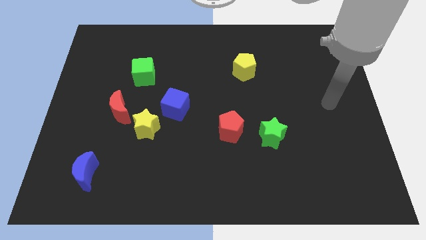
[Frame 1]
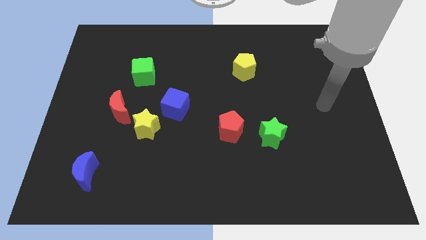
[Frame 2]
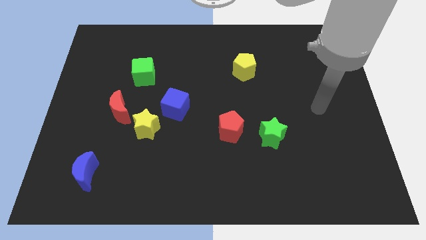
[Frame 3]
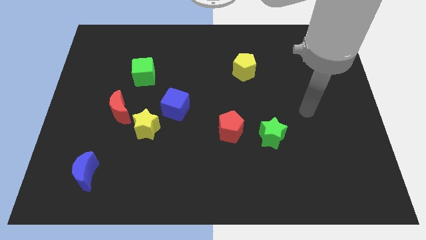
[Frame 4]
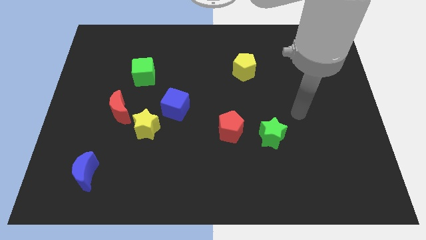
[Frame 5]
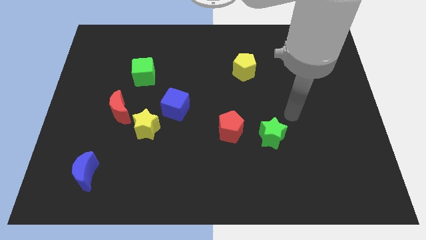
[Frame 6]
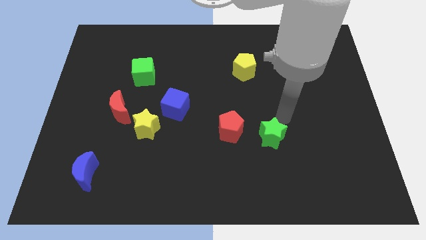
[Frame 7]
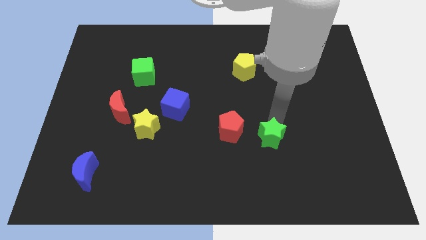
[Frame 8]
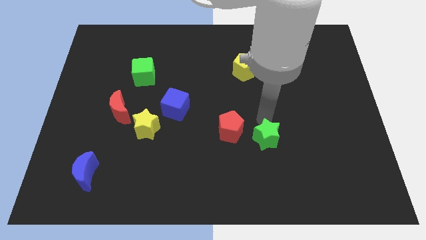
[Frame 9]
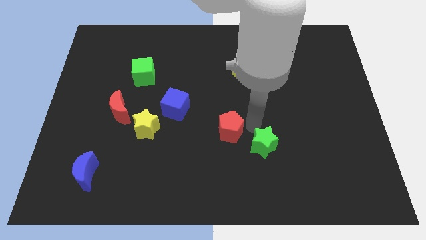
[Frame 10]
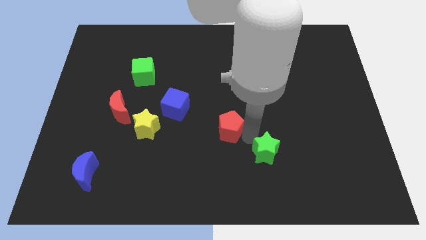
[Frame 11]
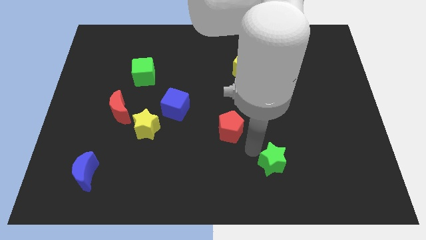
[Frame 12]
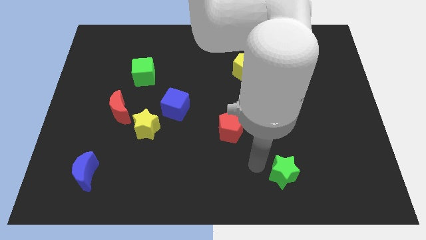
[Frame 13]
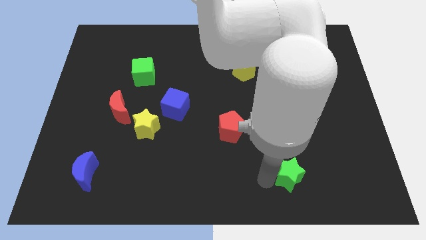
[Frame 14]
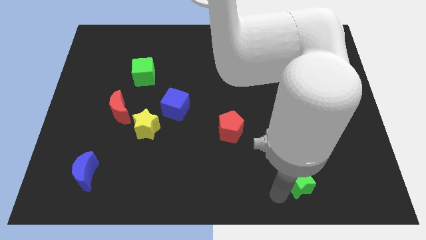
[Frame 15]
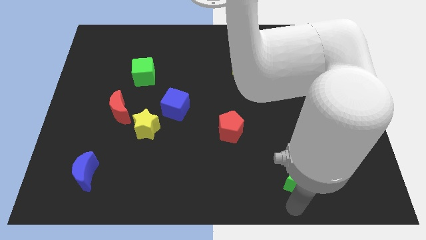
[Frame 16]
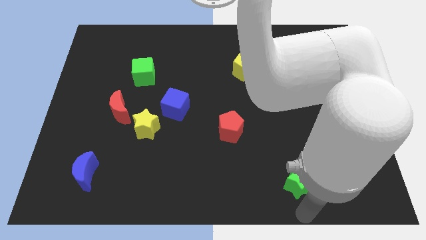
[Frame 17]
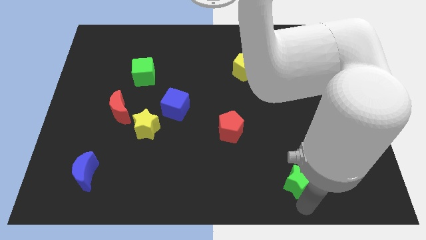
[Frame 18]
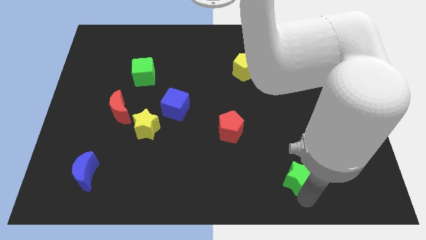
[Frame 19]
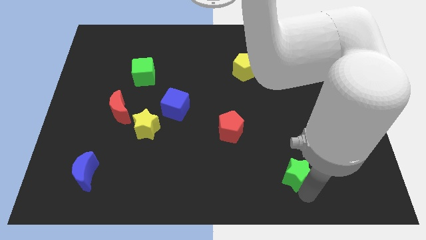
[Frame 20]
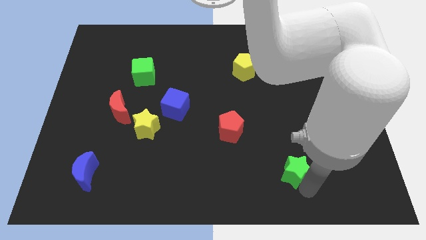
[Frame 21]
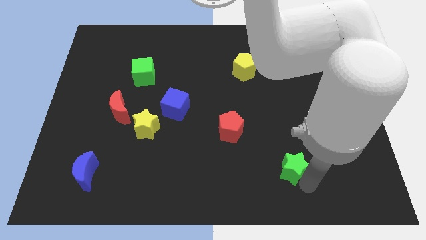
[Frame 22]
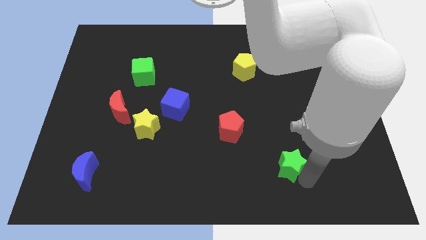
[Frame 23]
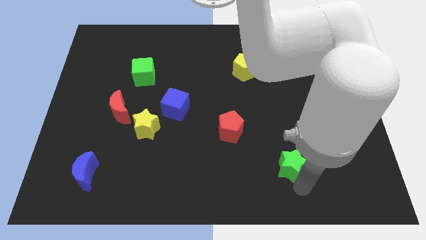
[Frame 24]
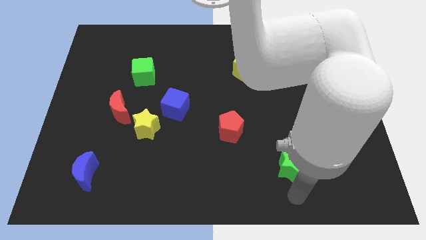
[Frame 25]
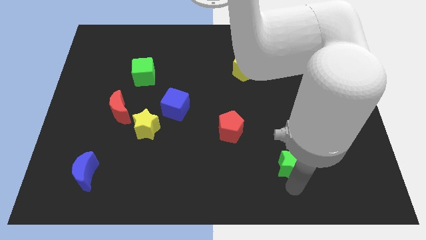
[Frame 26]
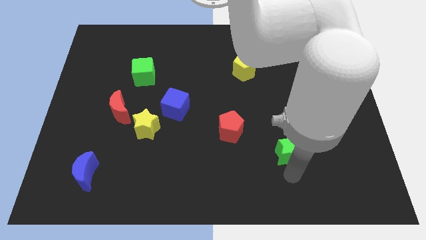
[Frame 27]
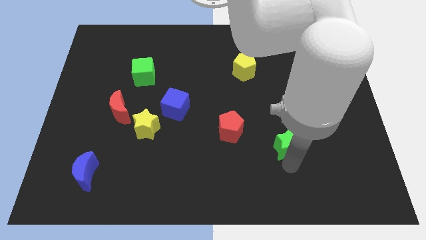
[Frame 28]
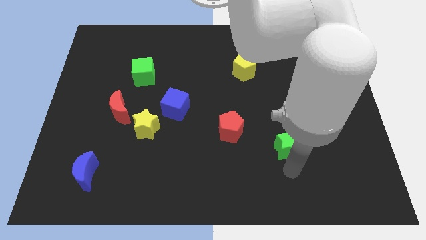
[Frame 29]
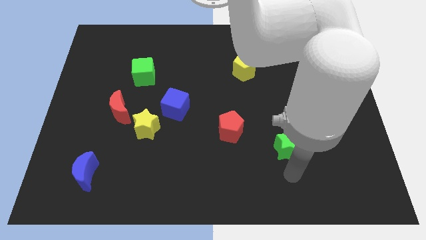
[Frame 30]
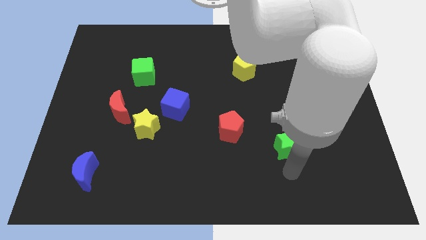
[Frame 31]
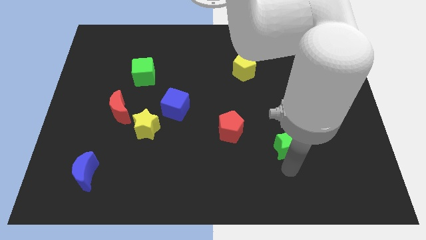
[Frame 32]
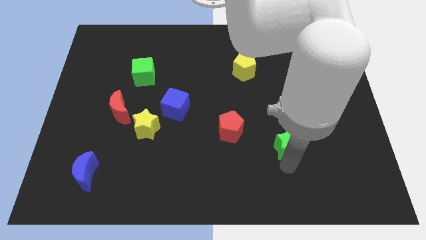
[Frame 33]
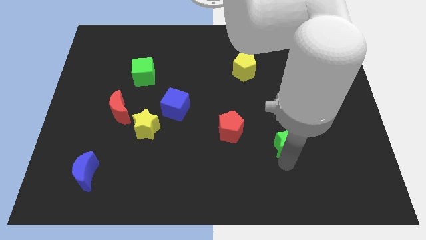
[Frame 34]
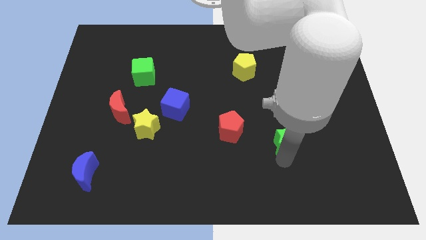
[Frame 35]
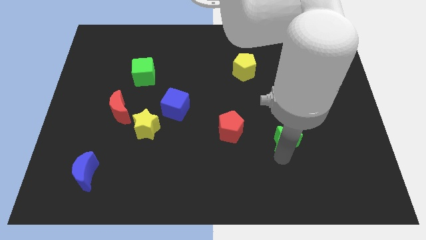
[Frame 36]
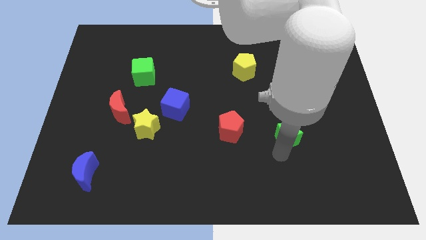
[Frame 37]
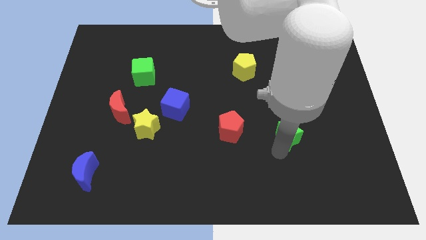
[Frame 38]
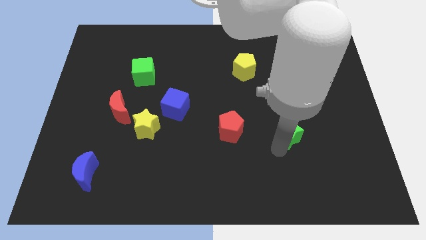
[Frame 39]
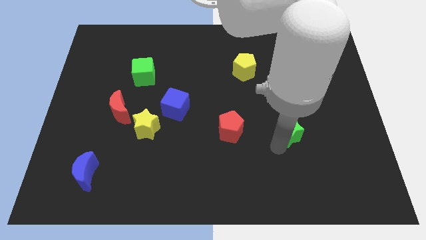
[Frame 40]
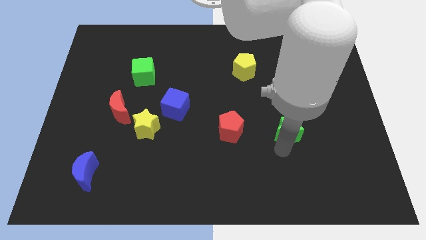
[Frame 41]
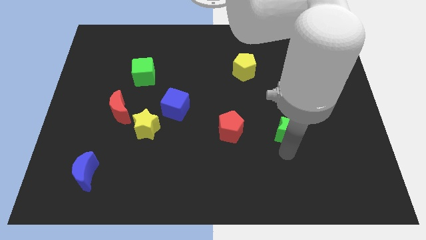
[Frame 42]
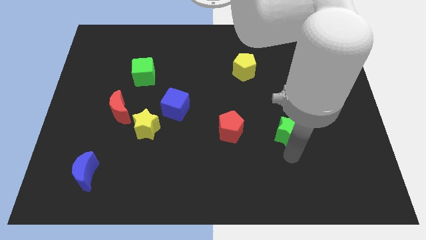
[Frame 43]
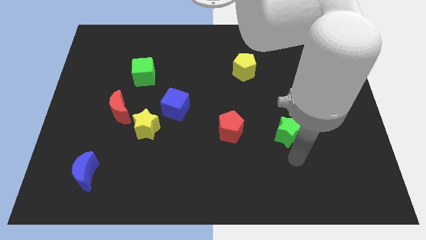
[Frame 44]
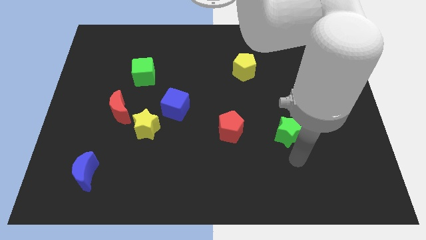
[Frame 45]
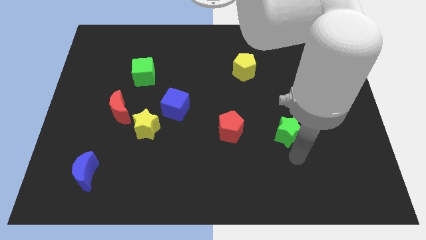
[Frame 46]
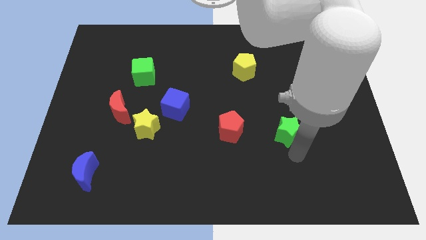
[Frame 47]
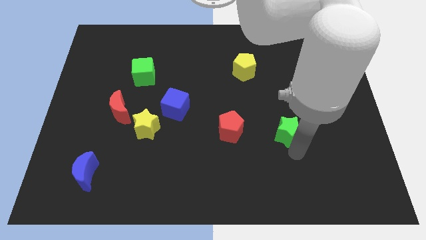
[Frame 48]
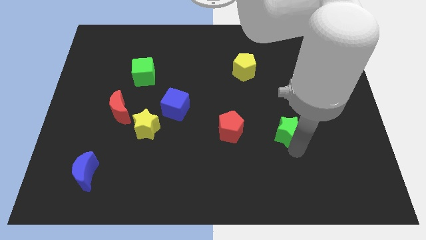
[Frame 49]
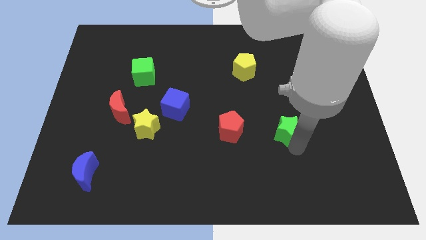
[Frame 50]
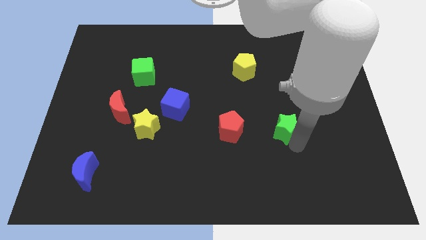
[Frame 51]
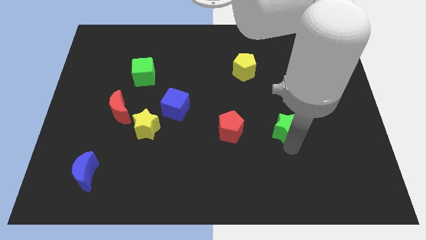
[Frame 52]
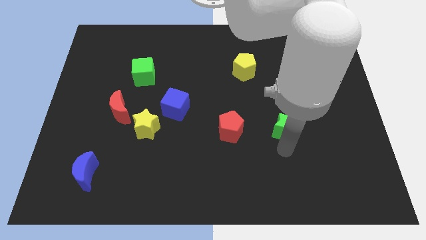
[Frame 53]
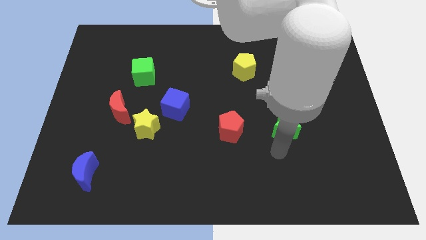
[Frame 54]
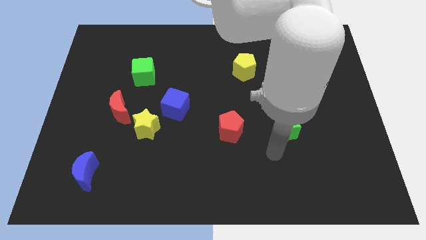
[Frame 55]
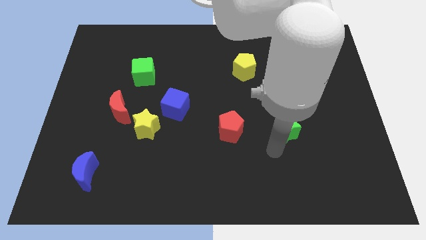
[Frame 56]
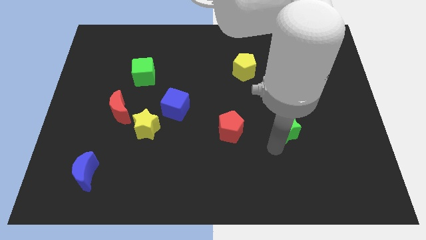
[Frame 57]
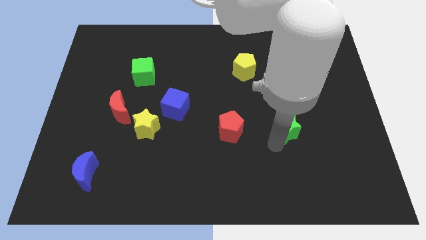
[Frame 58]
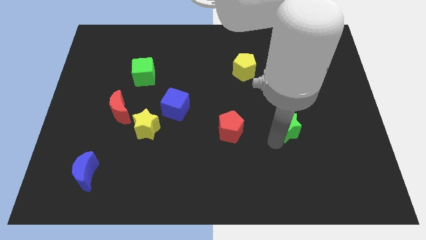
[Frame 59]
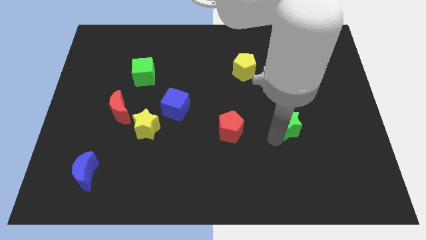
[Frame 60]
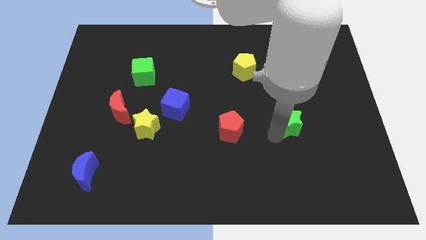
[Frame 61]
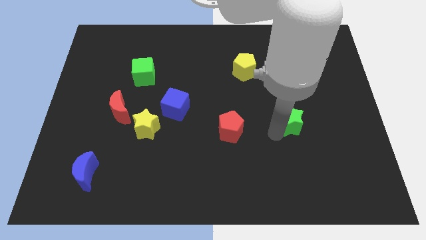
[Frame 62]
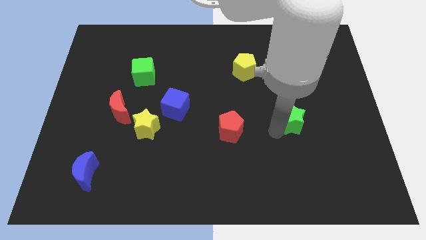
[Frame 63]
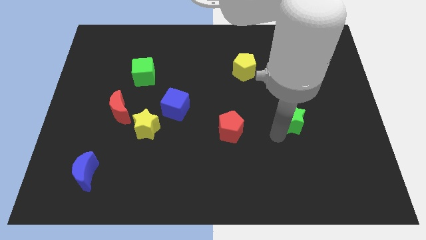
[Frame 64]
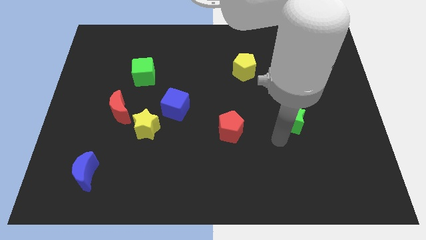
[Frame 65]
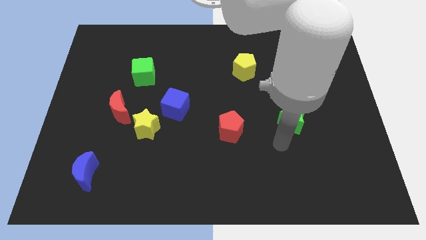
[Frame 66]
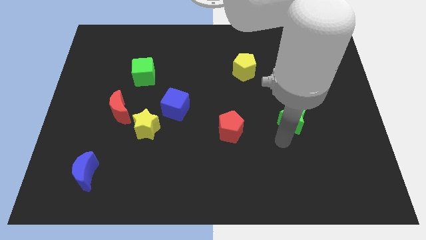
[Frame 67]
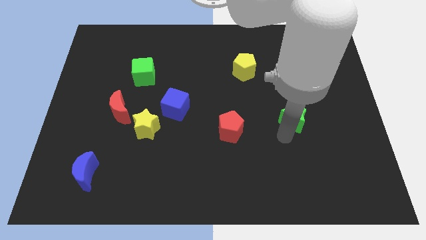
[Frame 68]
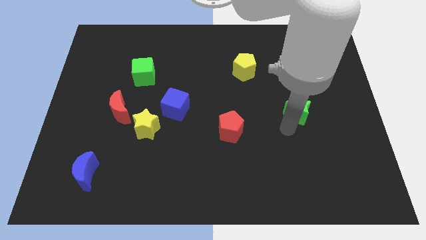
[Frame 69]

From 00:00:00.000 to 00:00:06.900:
slide the green star up and to the right diagonally somewhat

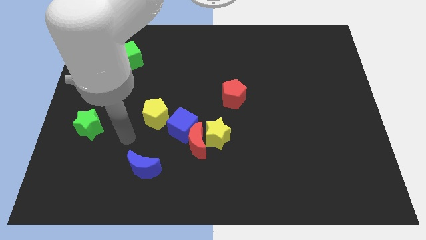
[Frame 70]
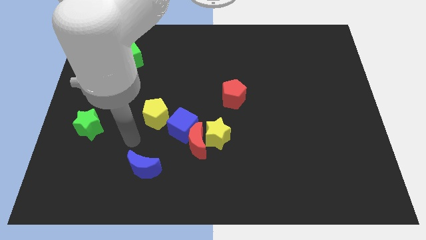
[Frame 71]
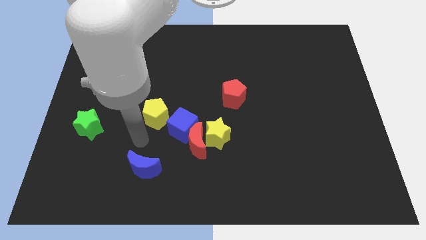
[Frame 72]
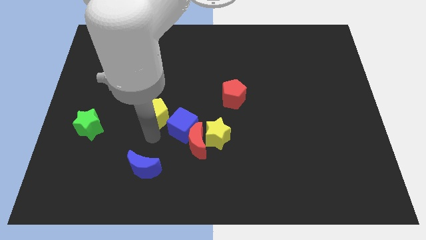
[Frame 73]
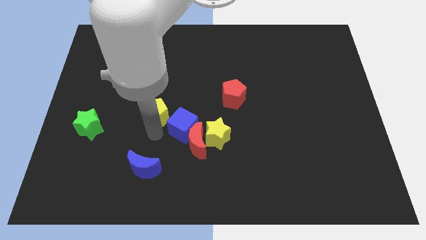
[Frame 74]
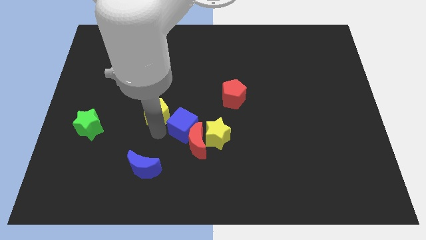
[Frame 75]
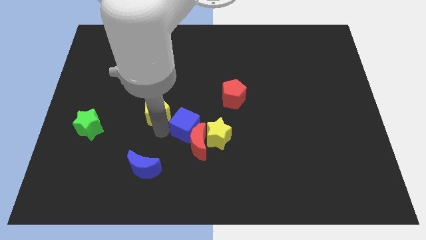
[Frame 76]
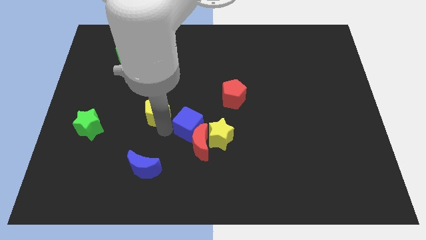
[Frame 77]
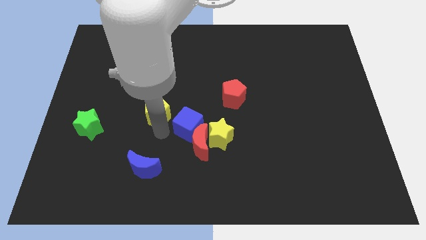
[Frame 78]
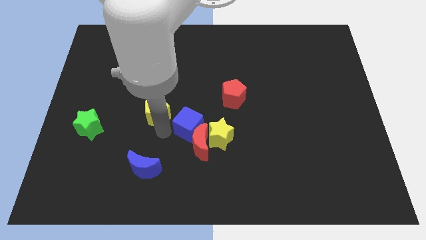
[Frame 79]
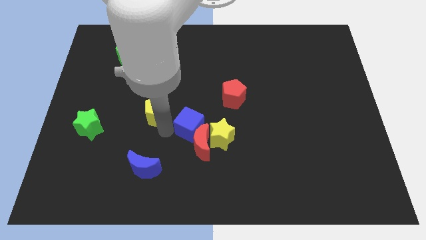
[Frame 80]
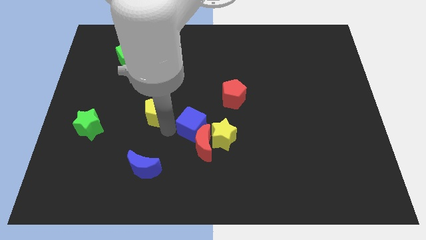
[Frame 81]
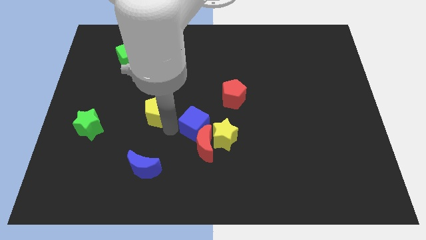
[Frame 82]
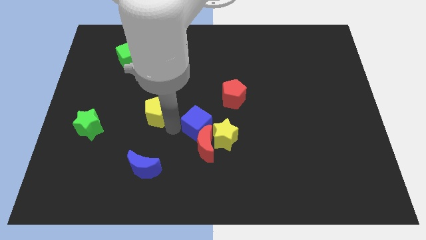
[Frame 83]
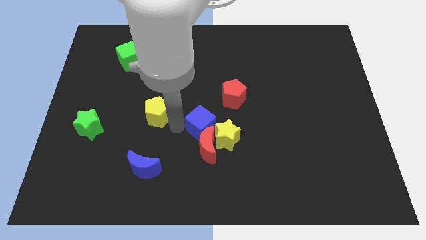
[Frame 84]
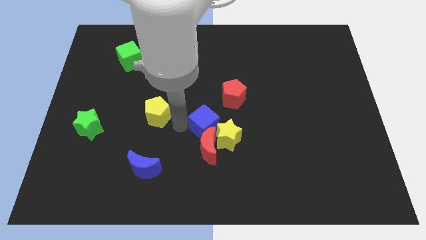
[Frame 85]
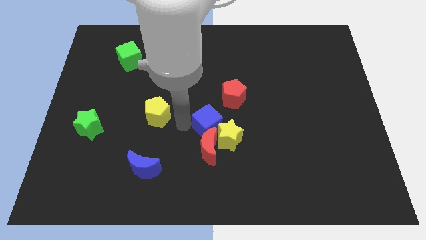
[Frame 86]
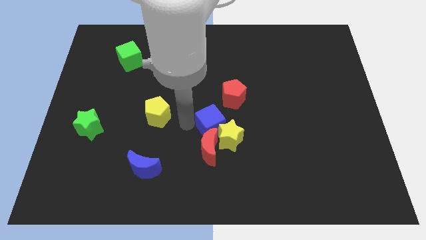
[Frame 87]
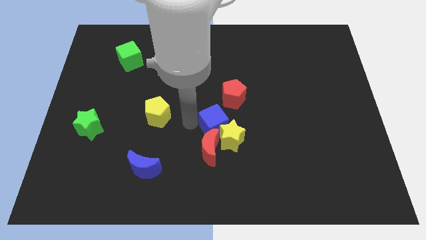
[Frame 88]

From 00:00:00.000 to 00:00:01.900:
slightly slide the blue cube right
